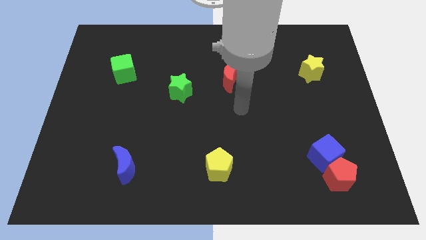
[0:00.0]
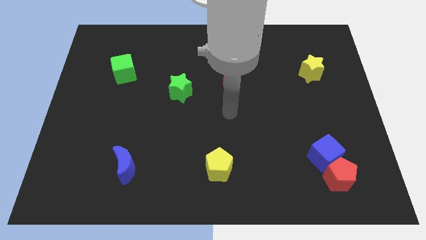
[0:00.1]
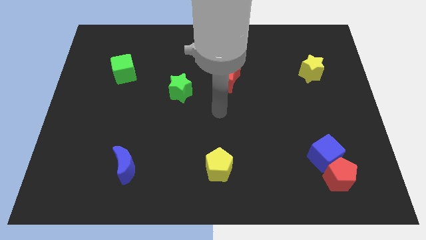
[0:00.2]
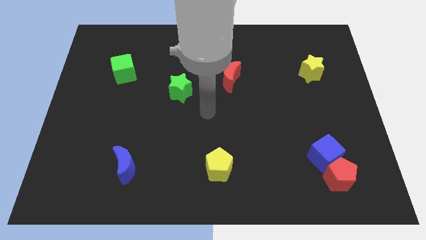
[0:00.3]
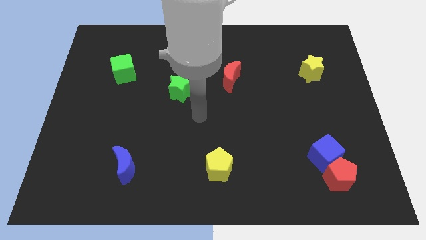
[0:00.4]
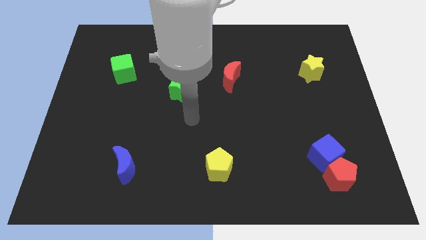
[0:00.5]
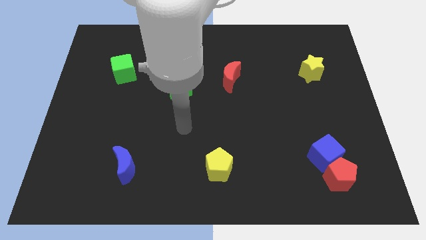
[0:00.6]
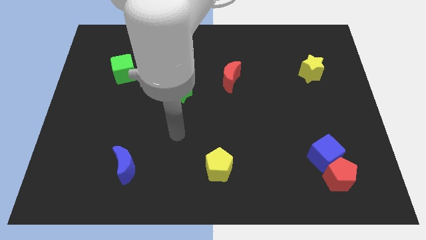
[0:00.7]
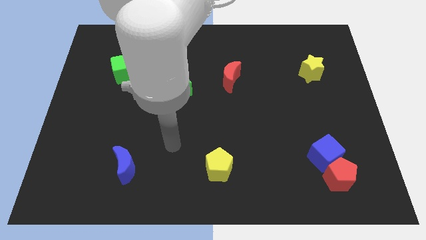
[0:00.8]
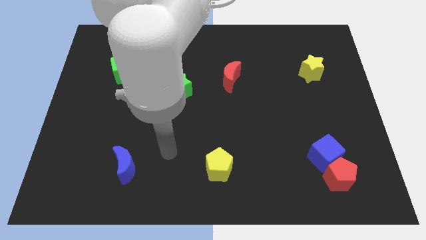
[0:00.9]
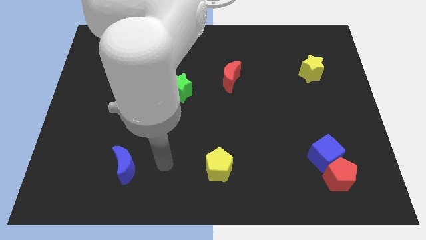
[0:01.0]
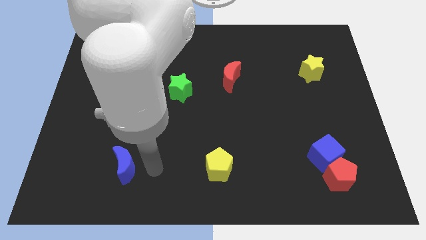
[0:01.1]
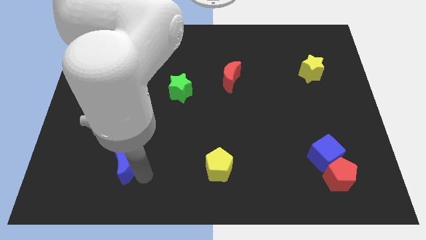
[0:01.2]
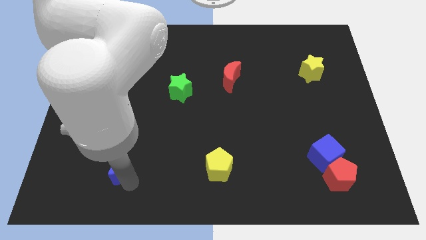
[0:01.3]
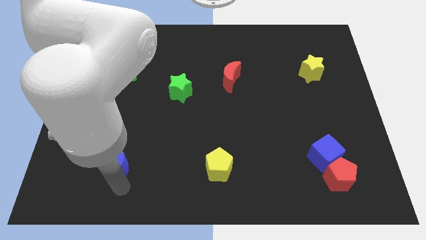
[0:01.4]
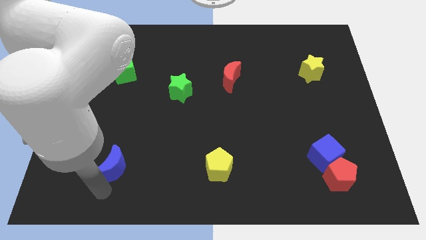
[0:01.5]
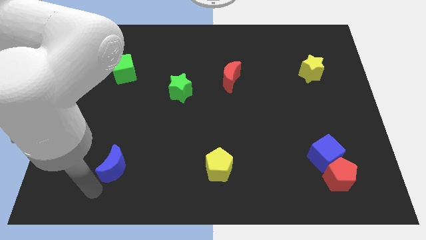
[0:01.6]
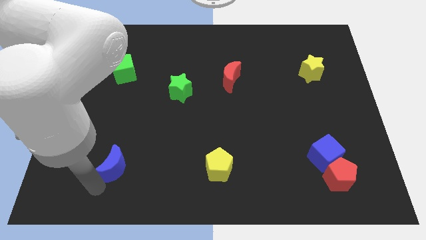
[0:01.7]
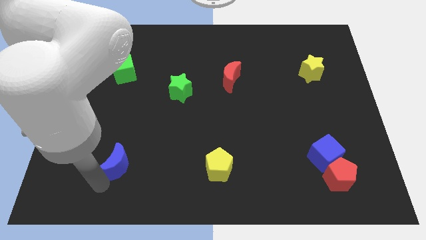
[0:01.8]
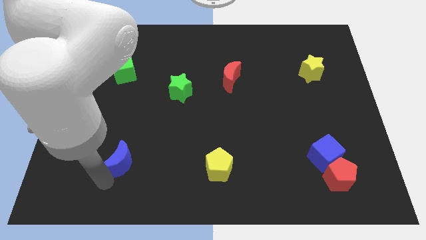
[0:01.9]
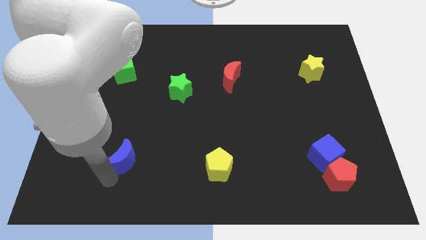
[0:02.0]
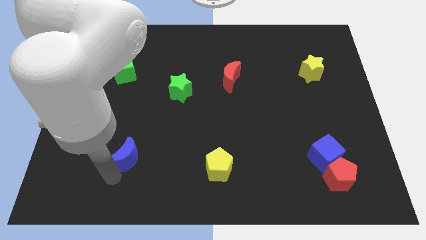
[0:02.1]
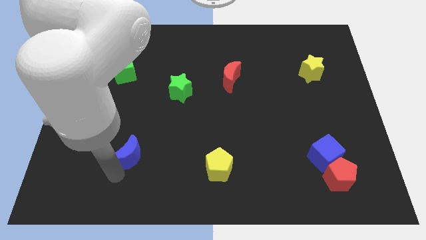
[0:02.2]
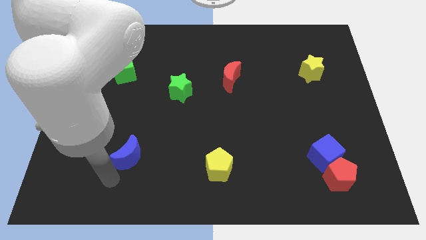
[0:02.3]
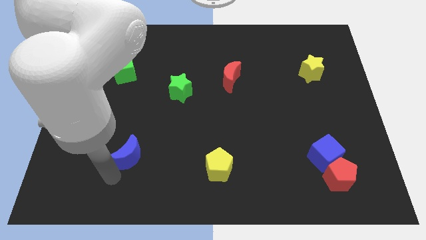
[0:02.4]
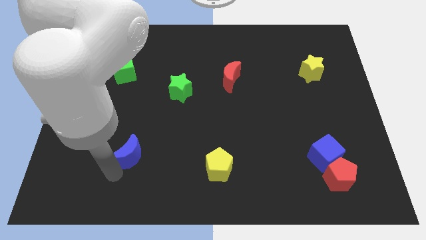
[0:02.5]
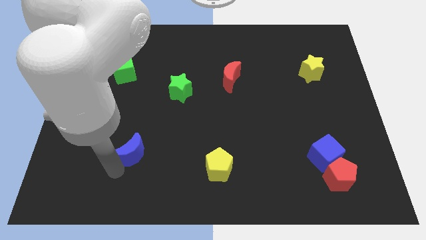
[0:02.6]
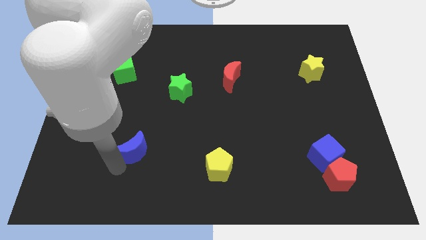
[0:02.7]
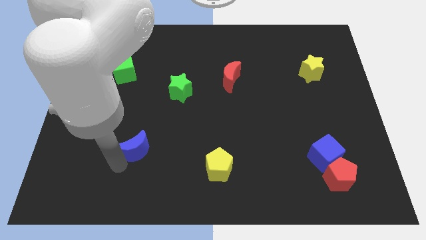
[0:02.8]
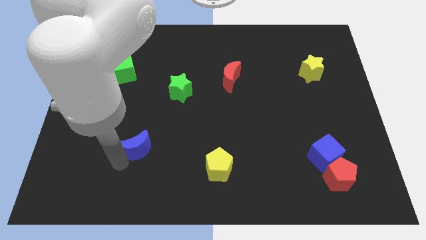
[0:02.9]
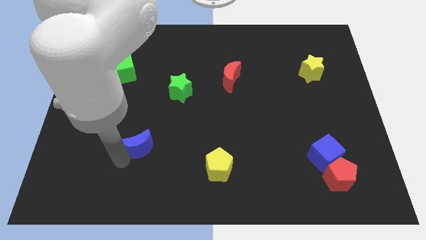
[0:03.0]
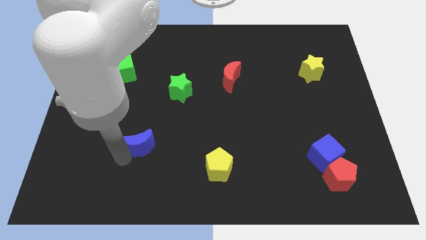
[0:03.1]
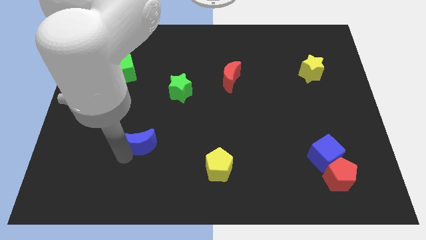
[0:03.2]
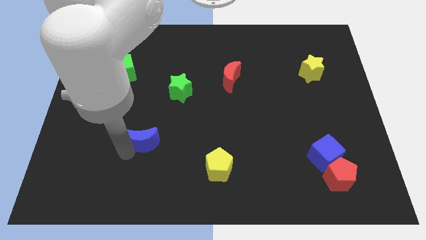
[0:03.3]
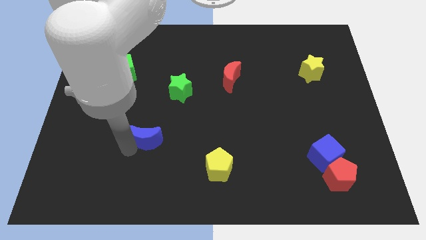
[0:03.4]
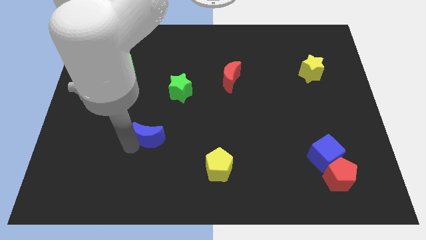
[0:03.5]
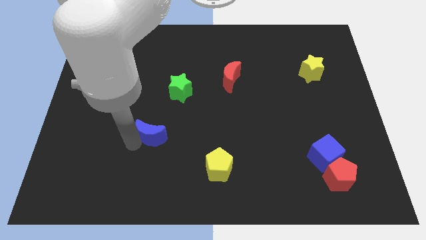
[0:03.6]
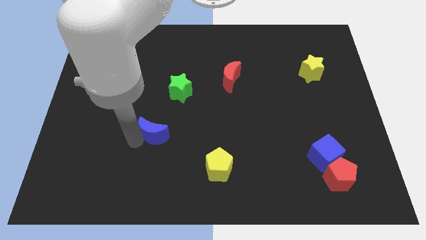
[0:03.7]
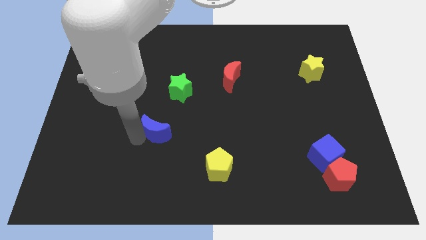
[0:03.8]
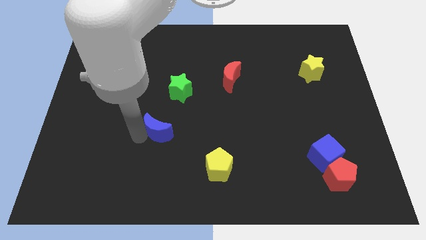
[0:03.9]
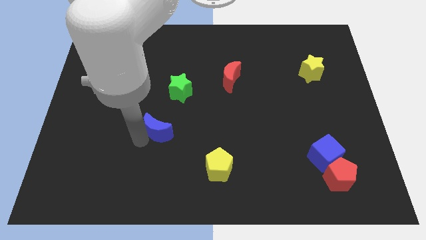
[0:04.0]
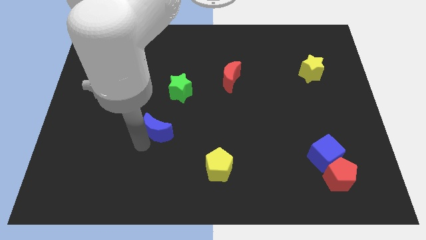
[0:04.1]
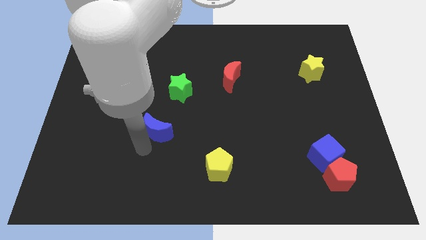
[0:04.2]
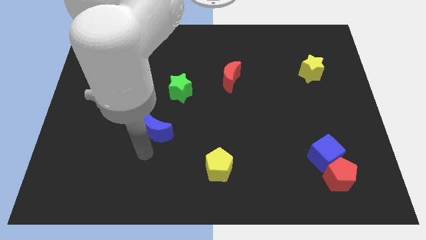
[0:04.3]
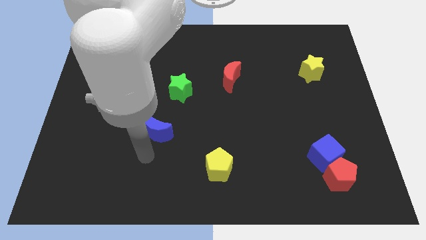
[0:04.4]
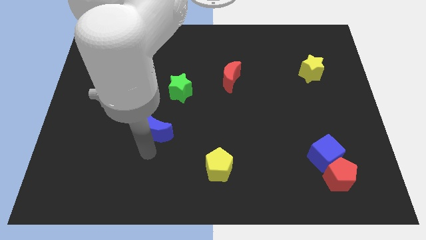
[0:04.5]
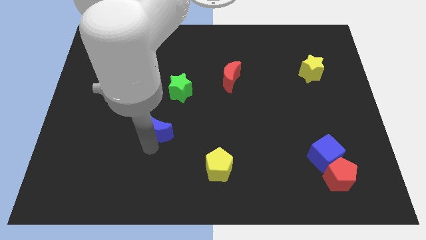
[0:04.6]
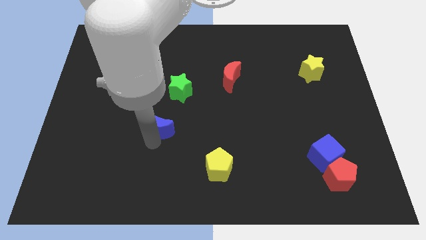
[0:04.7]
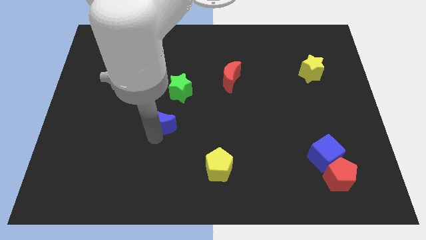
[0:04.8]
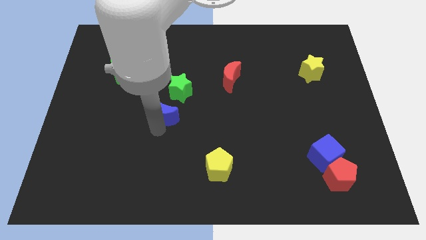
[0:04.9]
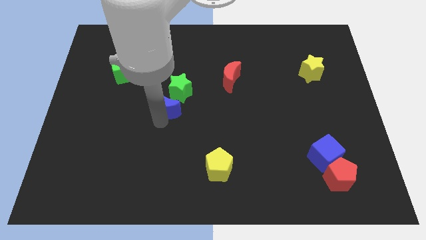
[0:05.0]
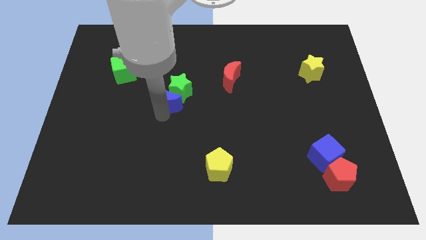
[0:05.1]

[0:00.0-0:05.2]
slide the blue moon close to the green star

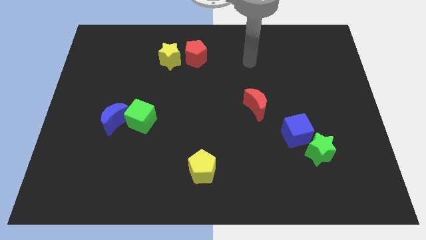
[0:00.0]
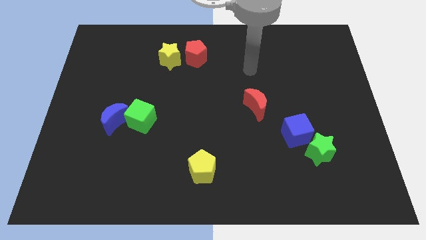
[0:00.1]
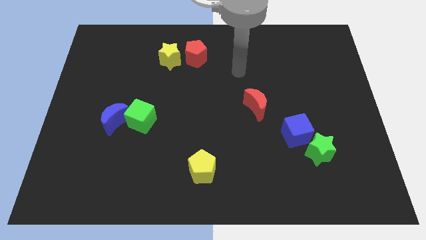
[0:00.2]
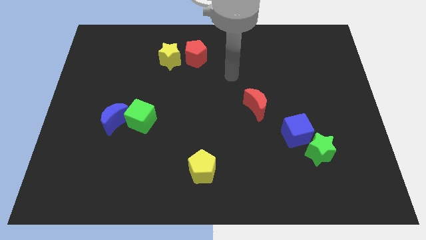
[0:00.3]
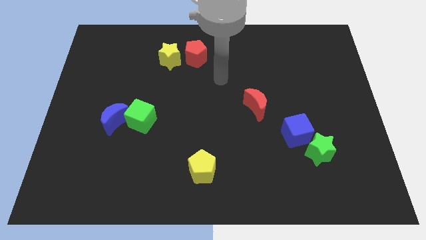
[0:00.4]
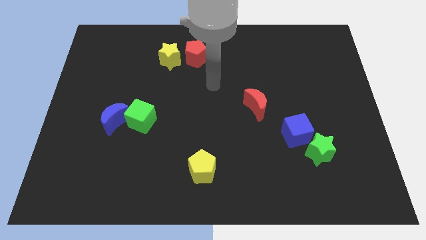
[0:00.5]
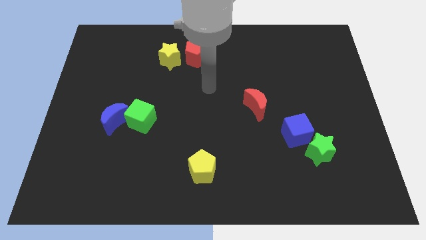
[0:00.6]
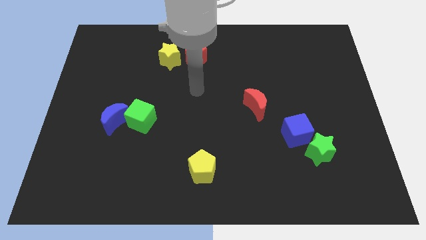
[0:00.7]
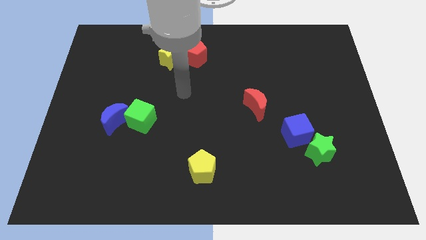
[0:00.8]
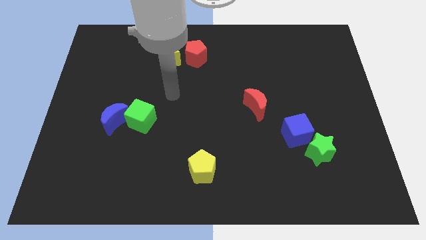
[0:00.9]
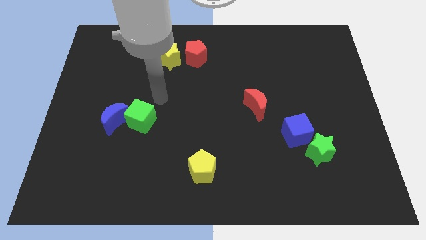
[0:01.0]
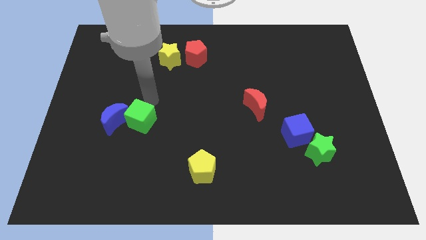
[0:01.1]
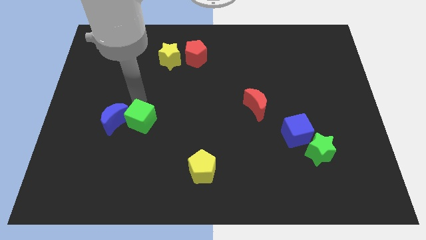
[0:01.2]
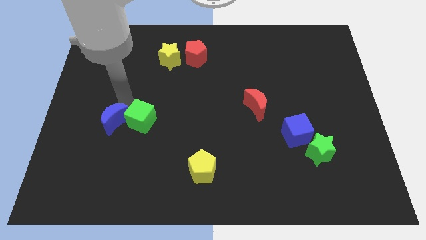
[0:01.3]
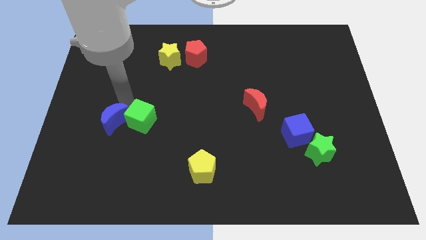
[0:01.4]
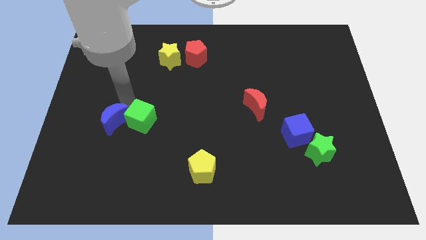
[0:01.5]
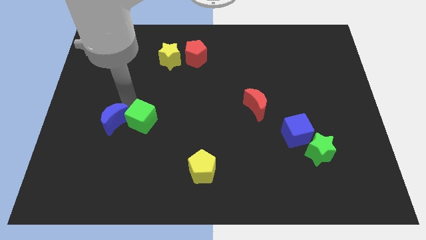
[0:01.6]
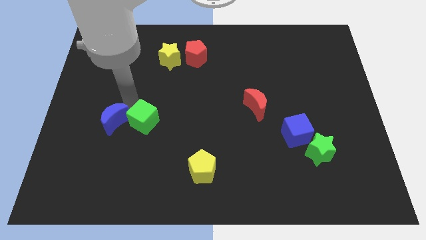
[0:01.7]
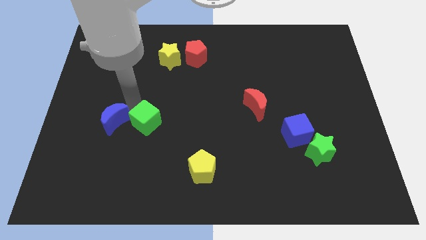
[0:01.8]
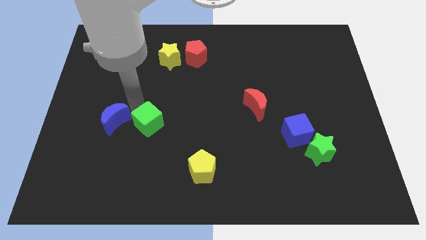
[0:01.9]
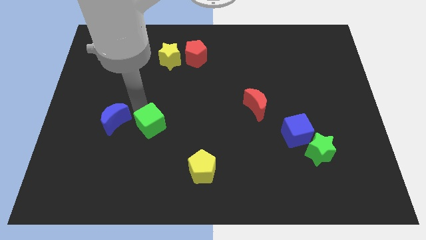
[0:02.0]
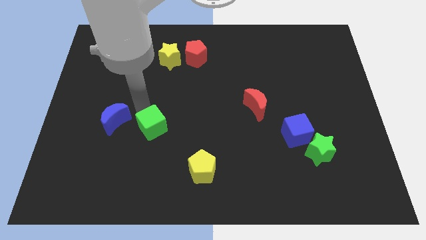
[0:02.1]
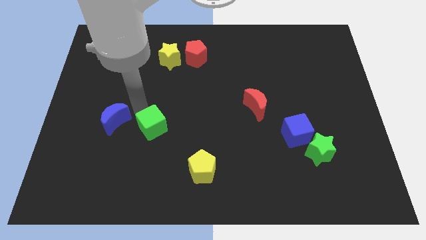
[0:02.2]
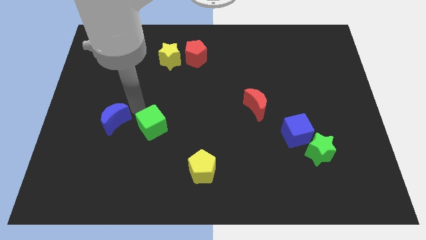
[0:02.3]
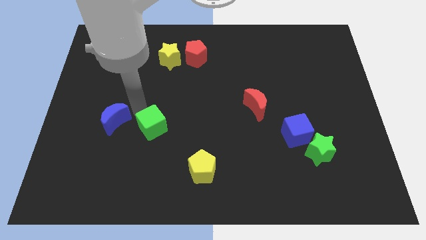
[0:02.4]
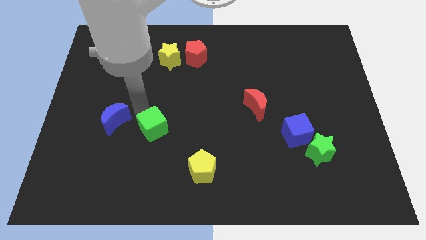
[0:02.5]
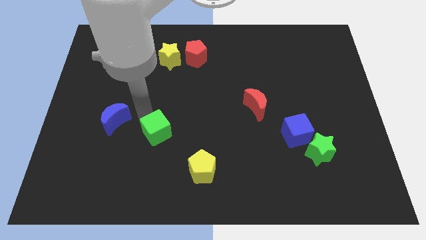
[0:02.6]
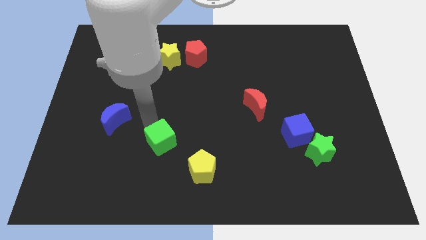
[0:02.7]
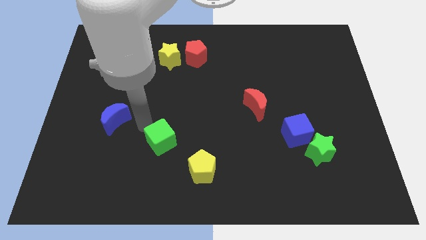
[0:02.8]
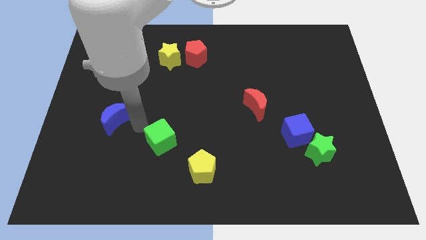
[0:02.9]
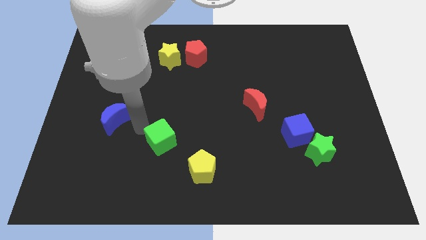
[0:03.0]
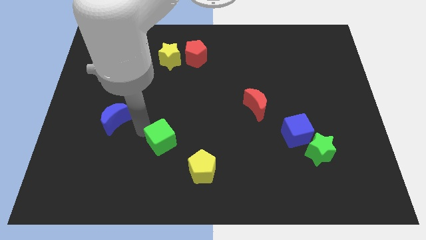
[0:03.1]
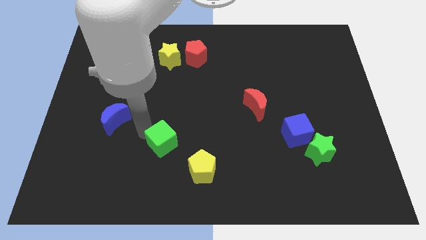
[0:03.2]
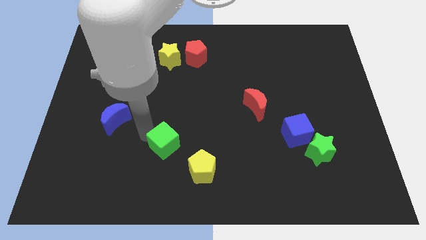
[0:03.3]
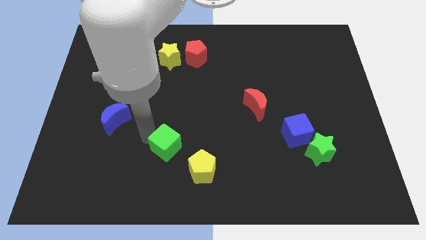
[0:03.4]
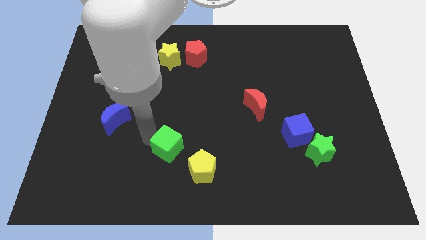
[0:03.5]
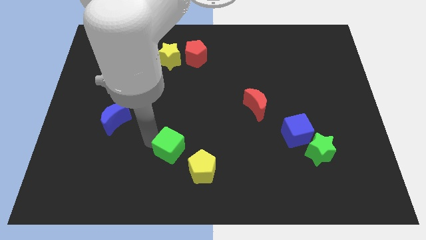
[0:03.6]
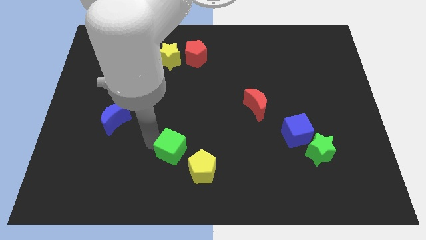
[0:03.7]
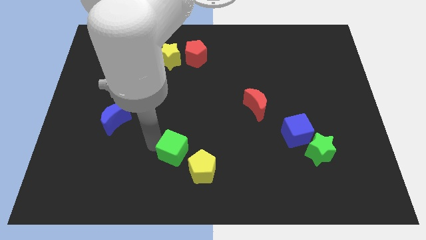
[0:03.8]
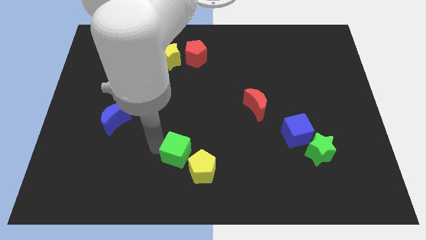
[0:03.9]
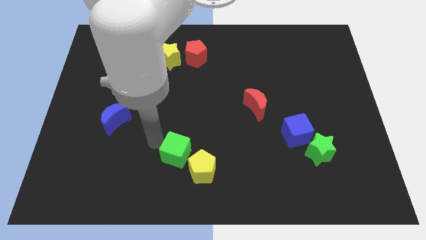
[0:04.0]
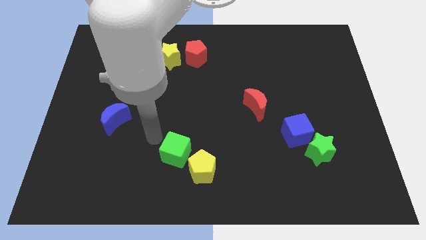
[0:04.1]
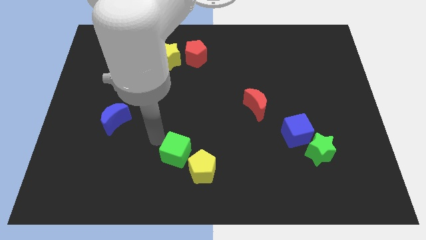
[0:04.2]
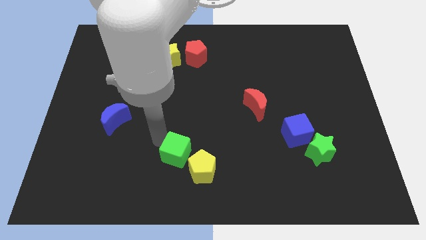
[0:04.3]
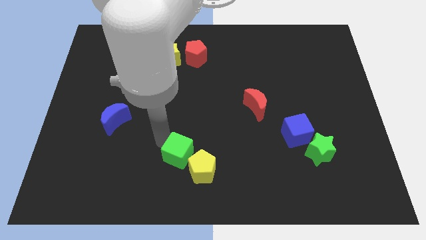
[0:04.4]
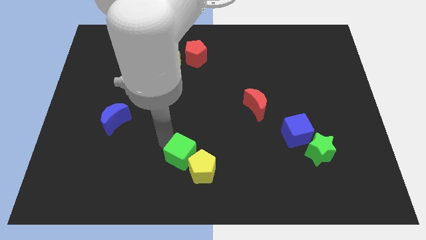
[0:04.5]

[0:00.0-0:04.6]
put the green cube close to the yellow pentagon
